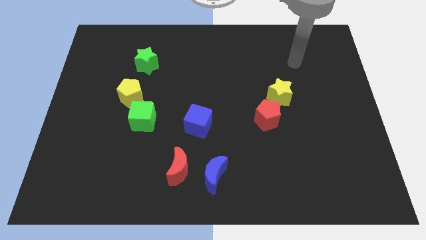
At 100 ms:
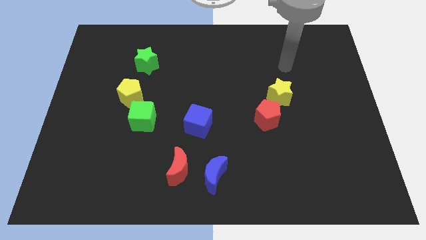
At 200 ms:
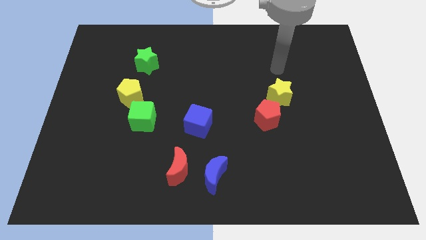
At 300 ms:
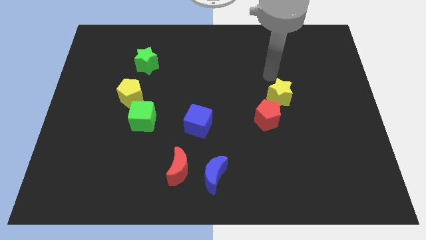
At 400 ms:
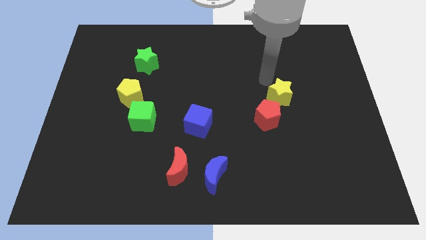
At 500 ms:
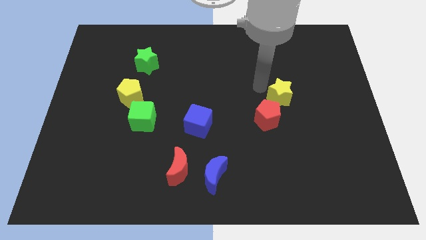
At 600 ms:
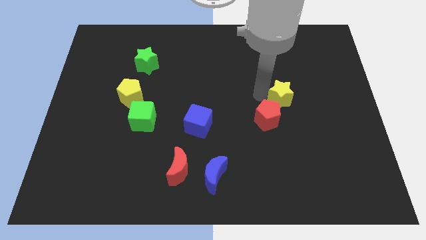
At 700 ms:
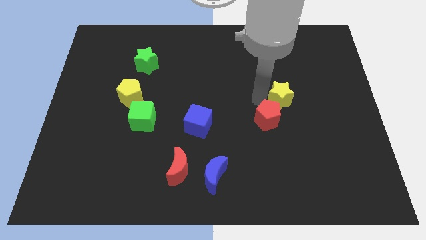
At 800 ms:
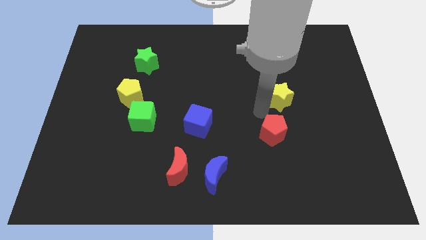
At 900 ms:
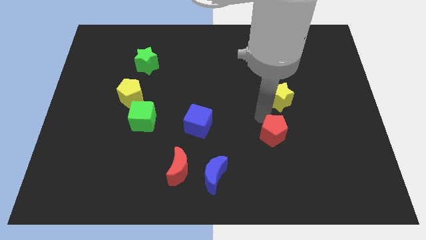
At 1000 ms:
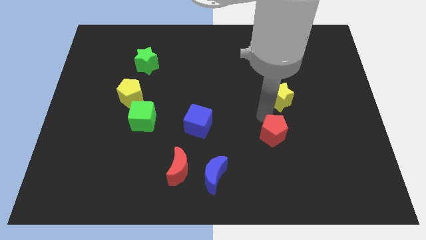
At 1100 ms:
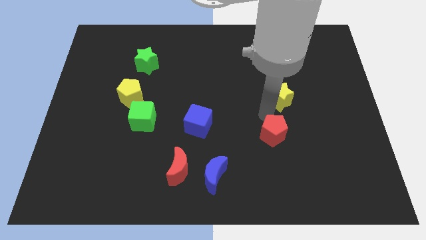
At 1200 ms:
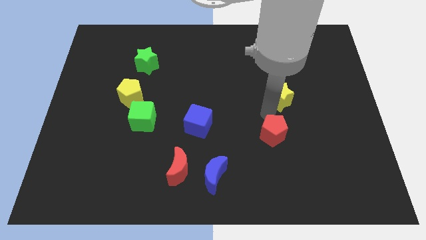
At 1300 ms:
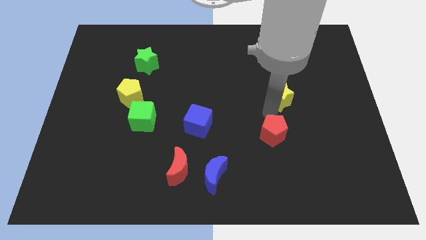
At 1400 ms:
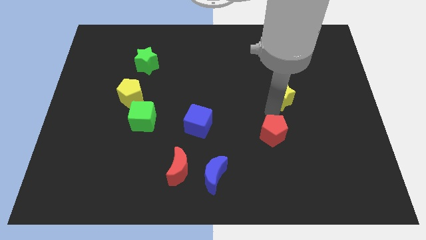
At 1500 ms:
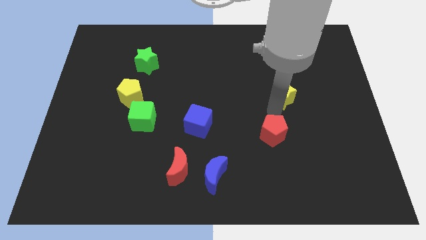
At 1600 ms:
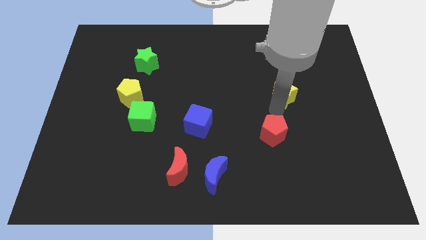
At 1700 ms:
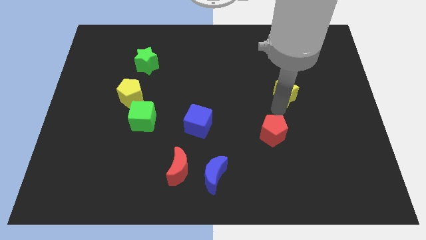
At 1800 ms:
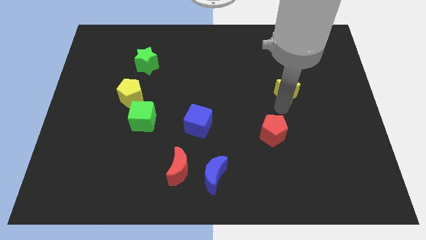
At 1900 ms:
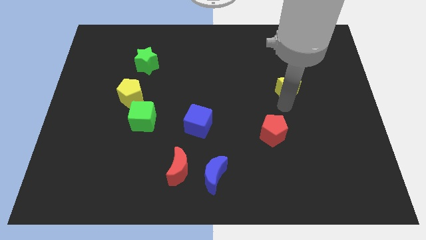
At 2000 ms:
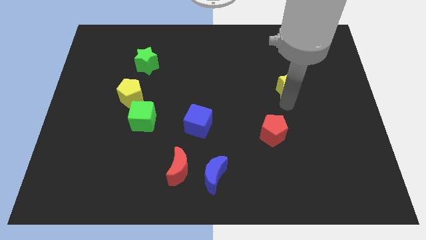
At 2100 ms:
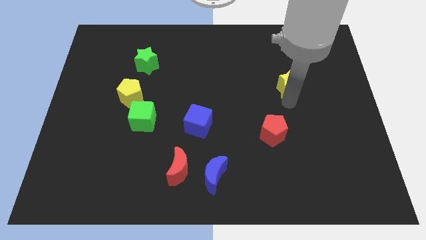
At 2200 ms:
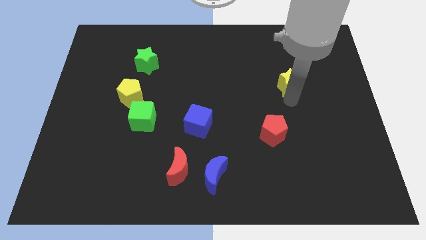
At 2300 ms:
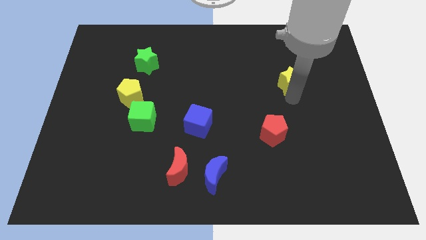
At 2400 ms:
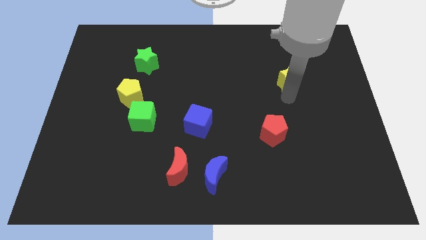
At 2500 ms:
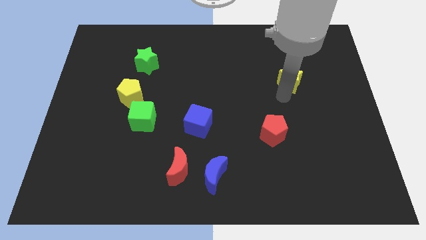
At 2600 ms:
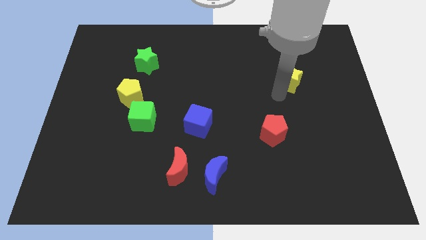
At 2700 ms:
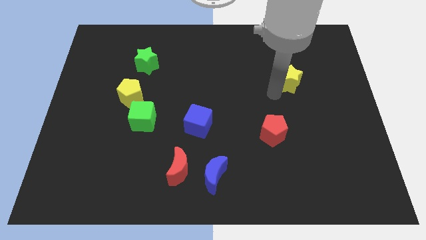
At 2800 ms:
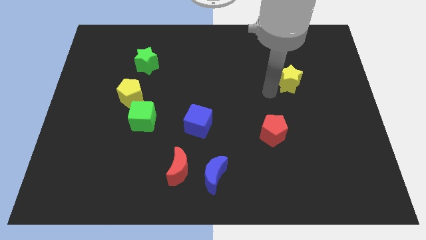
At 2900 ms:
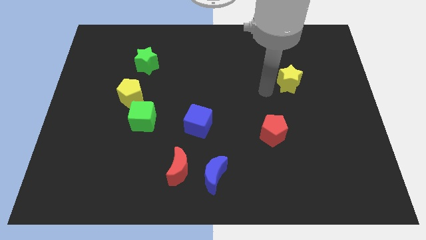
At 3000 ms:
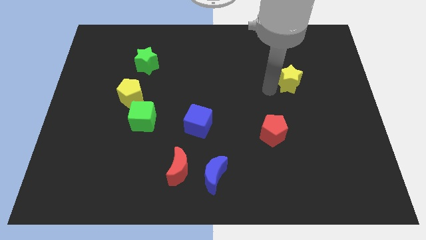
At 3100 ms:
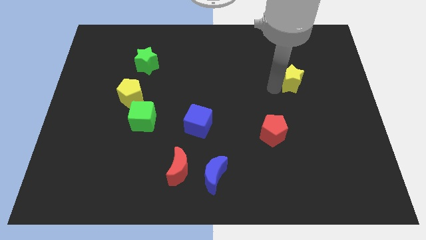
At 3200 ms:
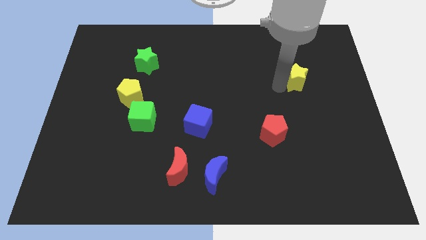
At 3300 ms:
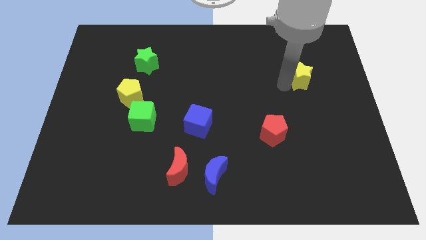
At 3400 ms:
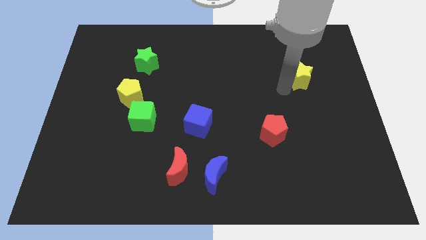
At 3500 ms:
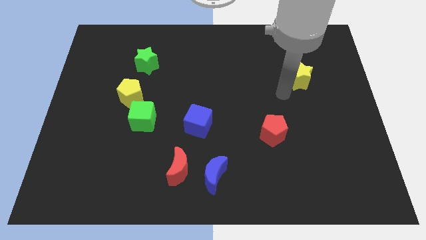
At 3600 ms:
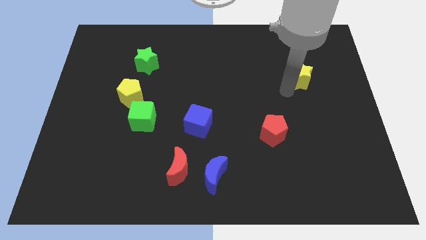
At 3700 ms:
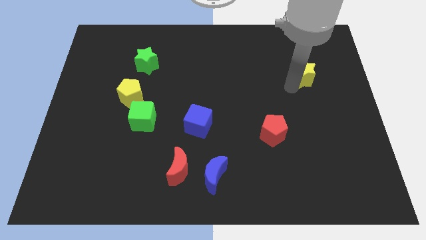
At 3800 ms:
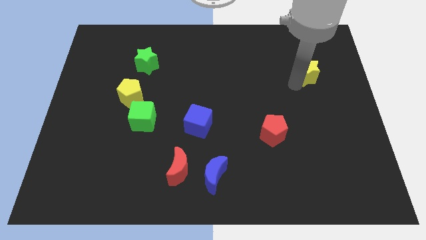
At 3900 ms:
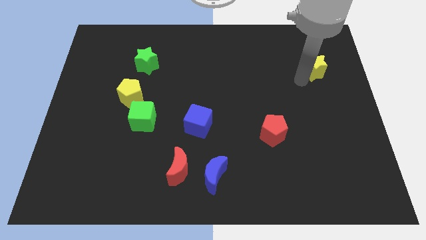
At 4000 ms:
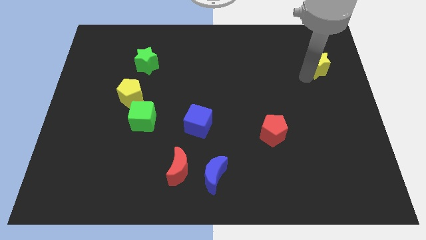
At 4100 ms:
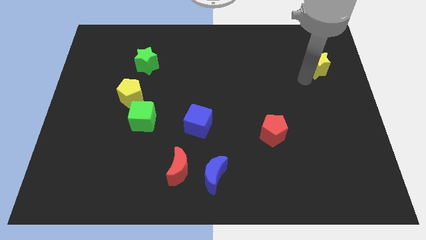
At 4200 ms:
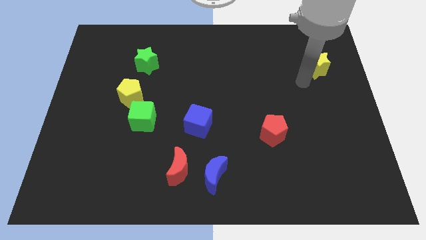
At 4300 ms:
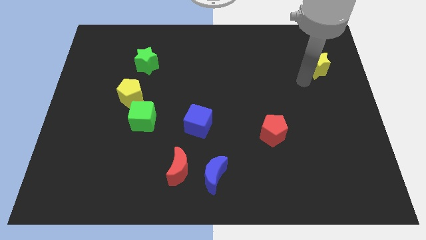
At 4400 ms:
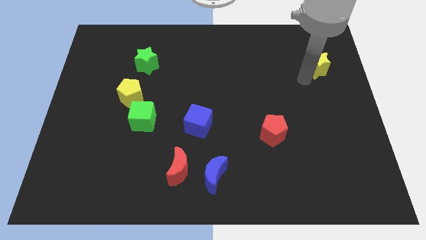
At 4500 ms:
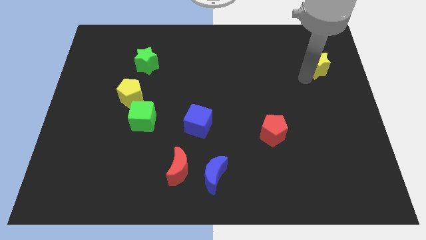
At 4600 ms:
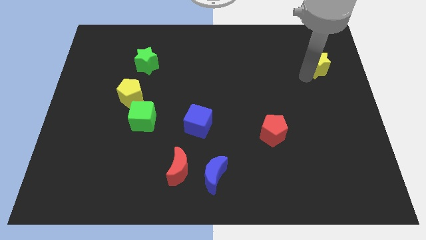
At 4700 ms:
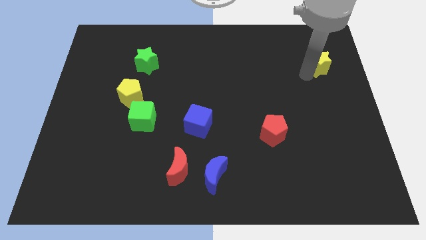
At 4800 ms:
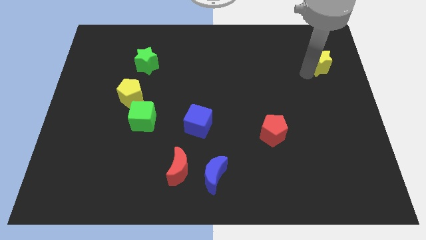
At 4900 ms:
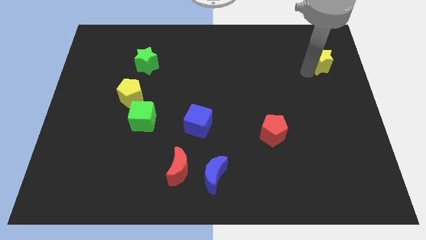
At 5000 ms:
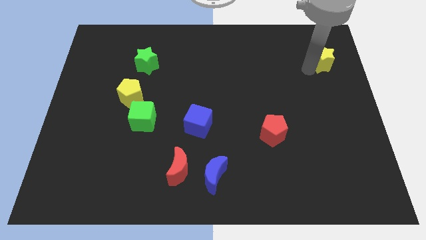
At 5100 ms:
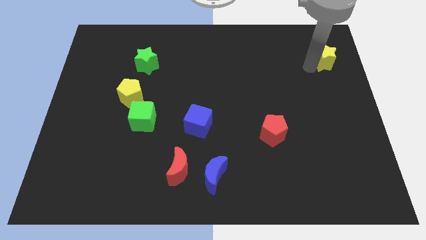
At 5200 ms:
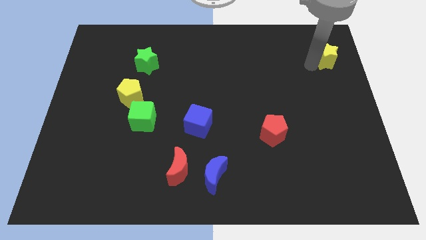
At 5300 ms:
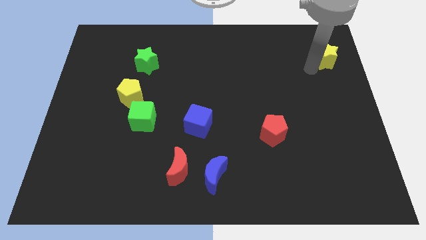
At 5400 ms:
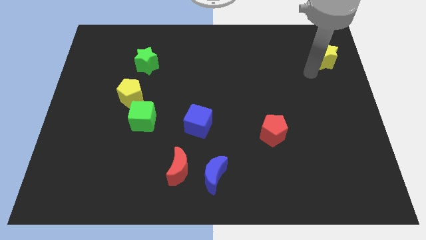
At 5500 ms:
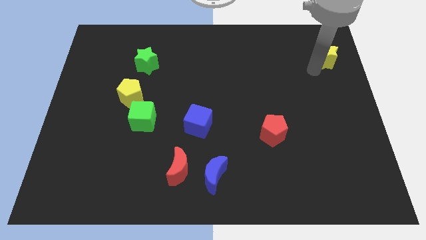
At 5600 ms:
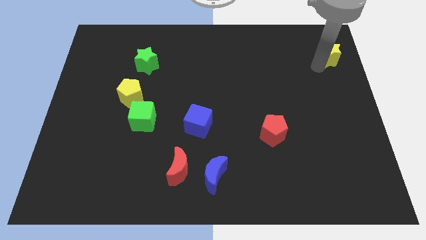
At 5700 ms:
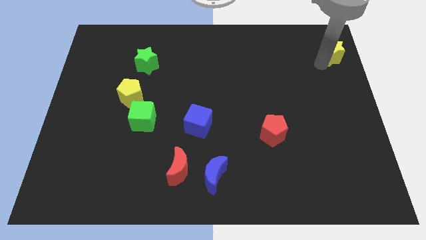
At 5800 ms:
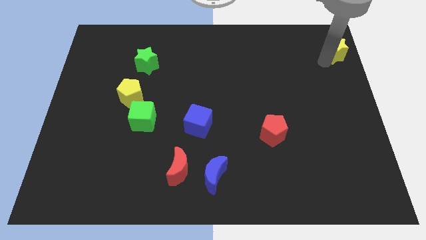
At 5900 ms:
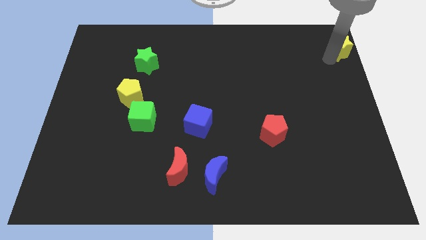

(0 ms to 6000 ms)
push the yellow star to the top right

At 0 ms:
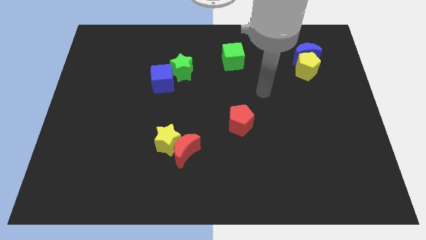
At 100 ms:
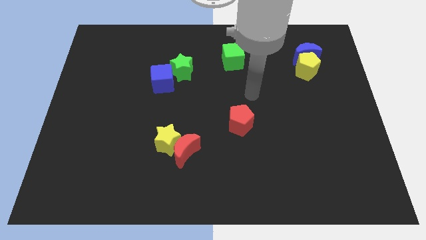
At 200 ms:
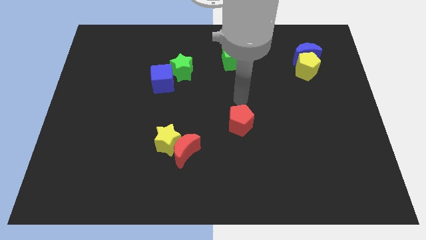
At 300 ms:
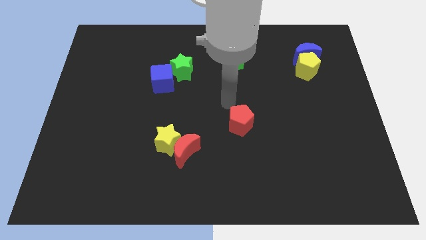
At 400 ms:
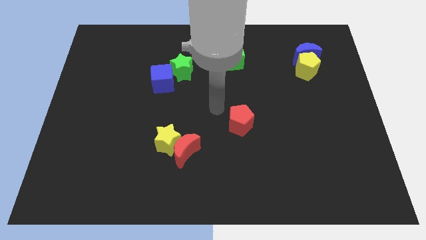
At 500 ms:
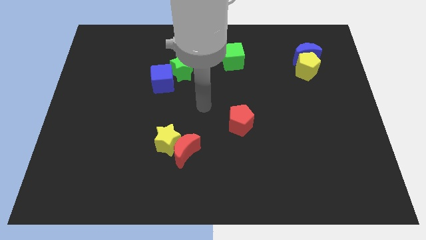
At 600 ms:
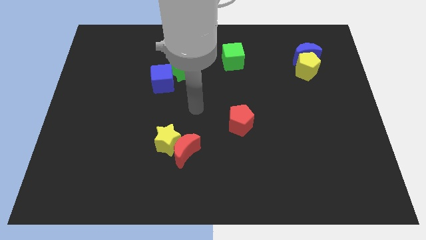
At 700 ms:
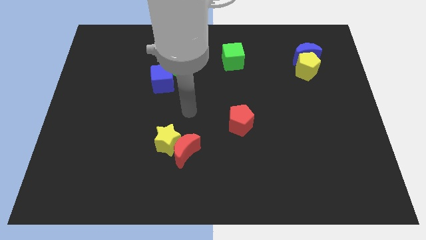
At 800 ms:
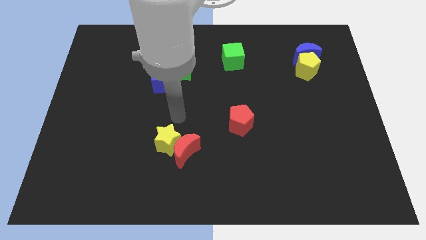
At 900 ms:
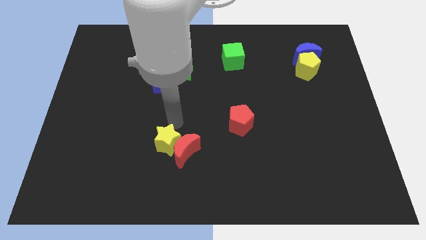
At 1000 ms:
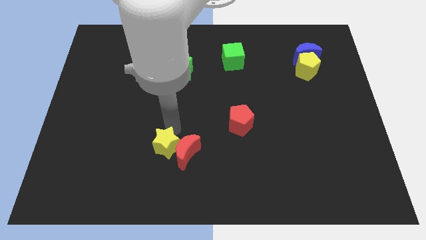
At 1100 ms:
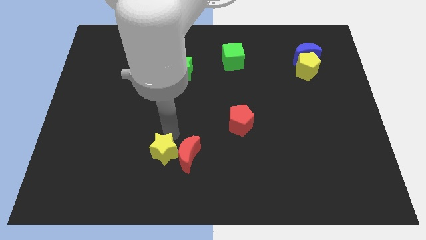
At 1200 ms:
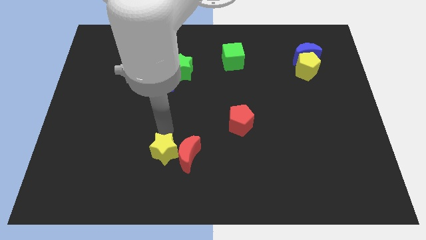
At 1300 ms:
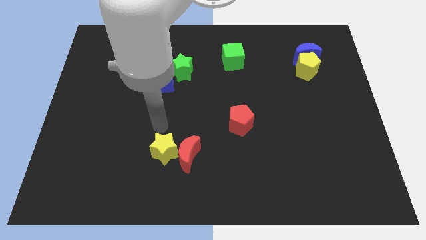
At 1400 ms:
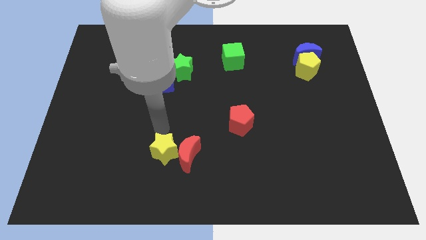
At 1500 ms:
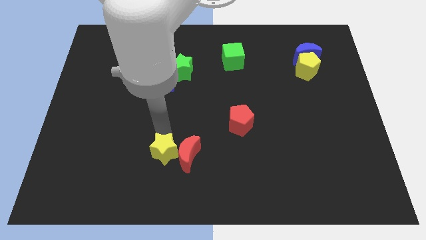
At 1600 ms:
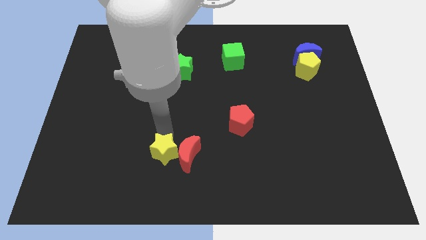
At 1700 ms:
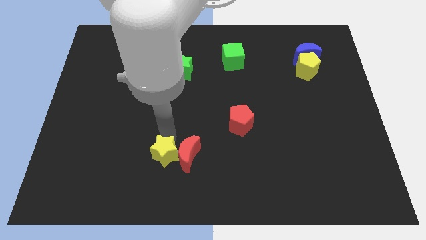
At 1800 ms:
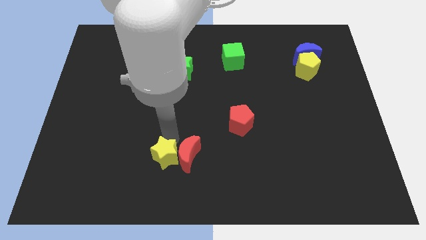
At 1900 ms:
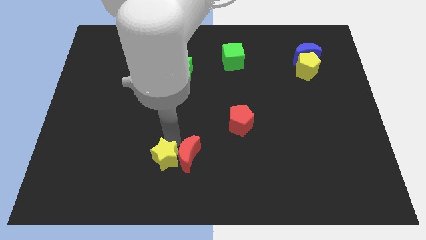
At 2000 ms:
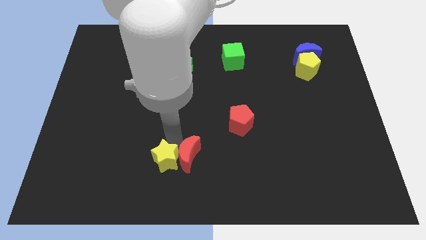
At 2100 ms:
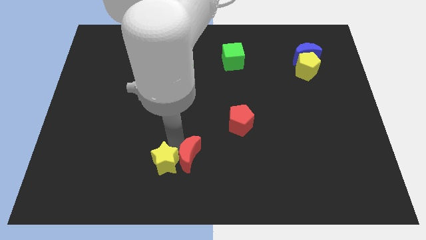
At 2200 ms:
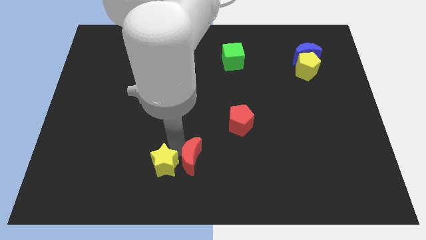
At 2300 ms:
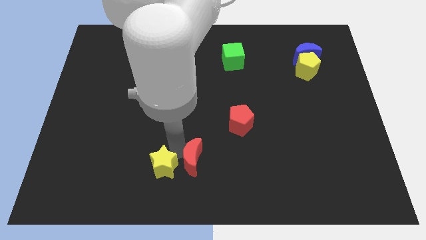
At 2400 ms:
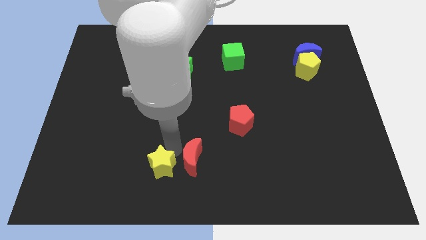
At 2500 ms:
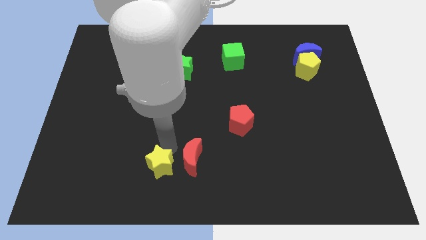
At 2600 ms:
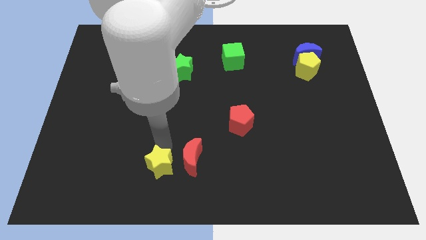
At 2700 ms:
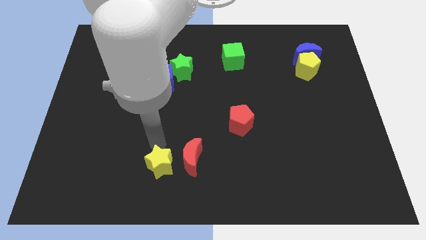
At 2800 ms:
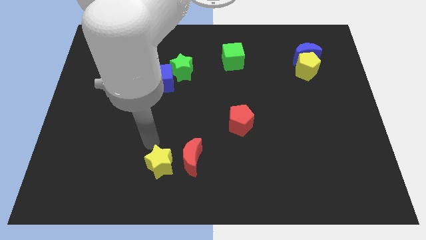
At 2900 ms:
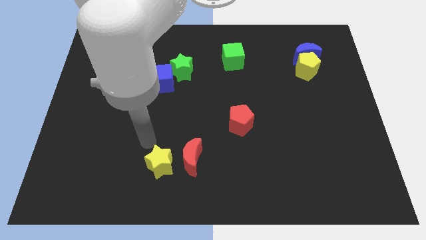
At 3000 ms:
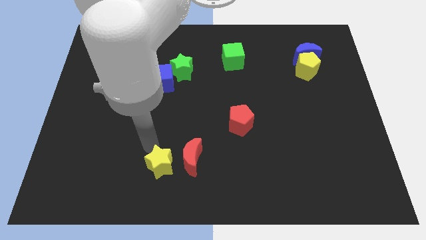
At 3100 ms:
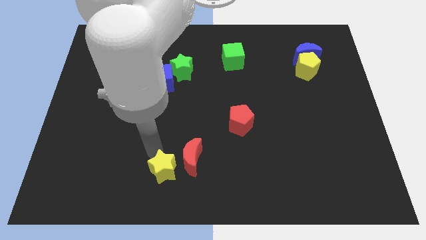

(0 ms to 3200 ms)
put the yellow star to the bottom side
